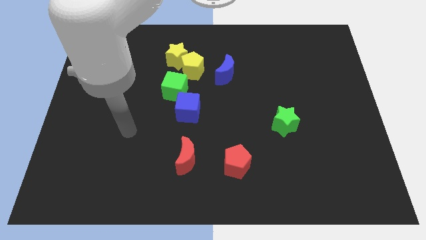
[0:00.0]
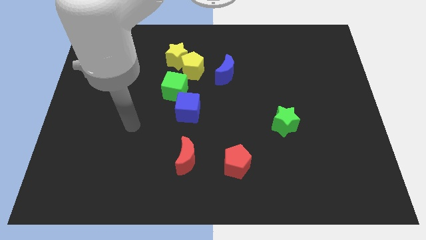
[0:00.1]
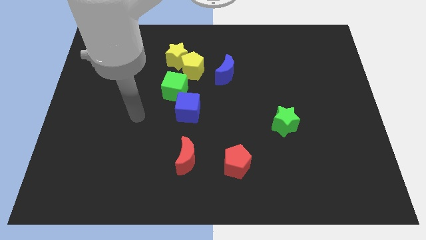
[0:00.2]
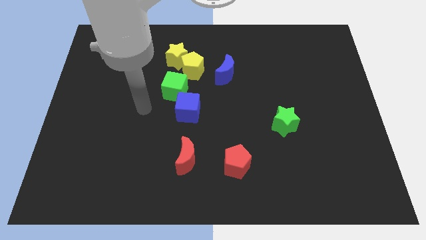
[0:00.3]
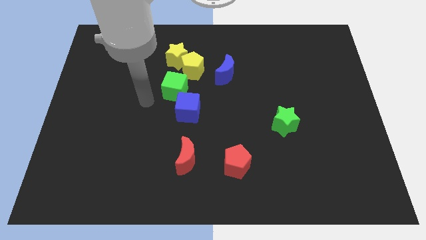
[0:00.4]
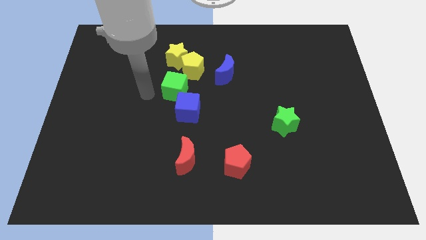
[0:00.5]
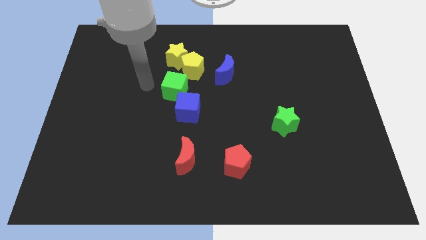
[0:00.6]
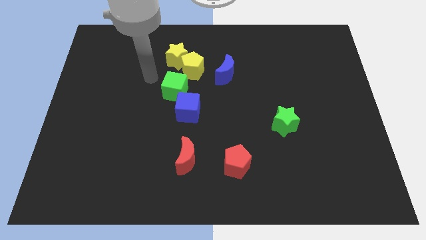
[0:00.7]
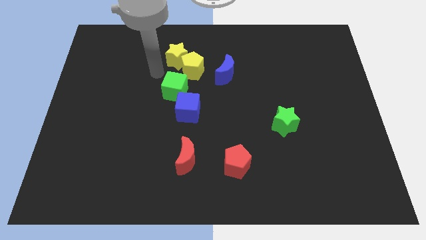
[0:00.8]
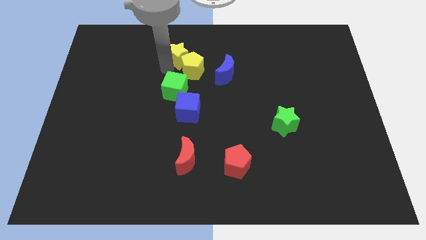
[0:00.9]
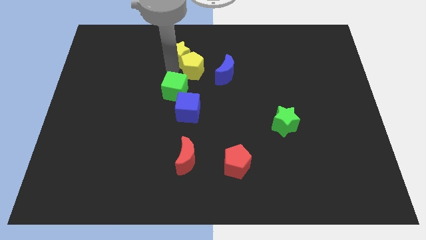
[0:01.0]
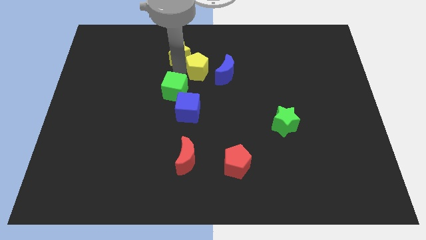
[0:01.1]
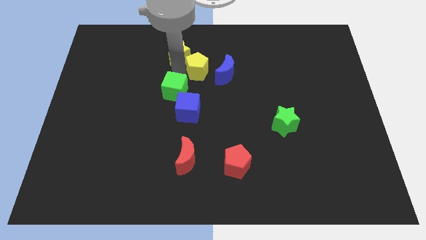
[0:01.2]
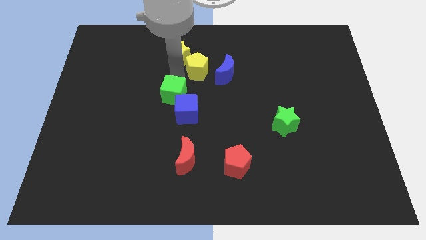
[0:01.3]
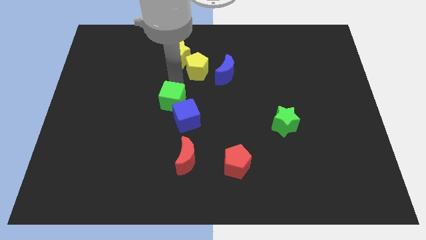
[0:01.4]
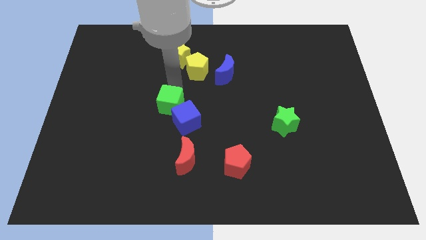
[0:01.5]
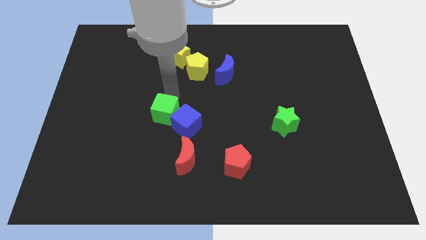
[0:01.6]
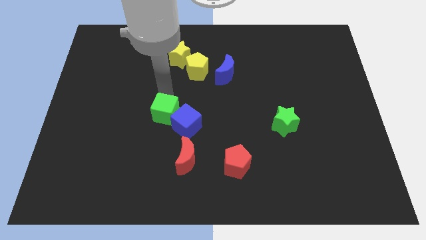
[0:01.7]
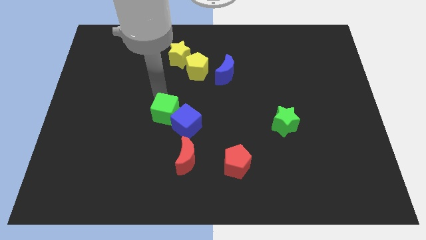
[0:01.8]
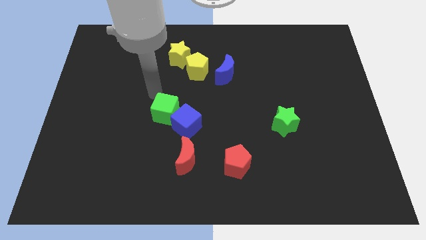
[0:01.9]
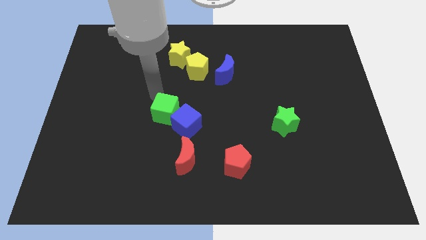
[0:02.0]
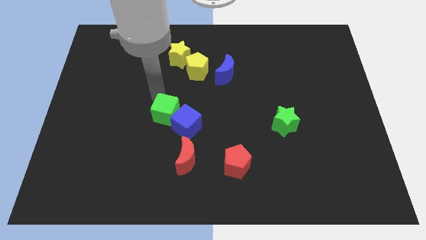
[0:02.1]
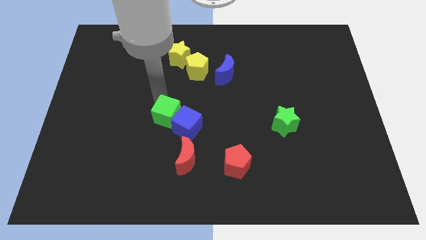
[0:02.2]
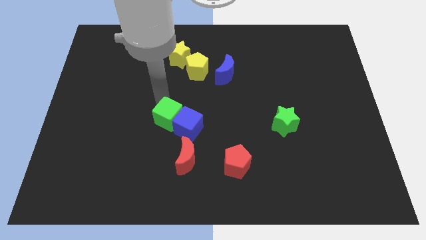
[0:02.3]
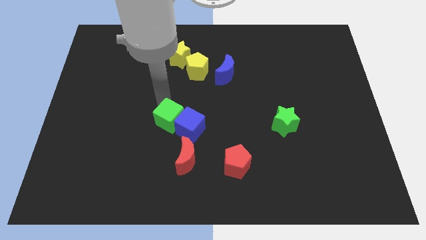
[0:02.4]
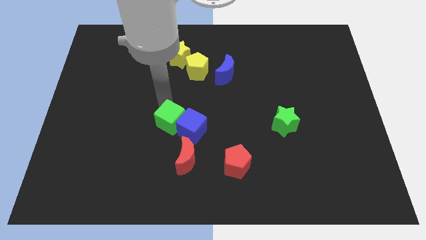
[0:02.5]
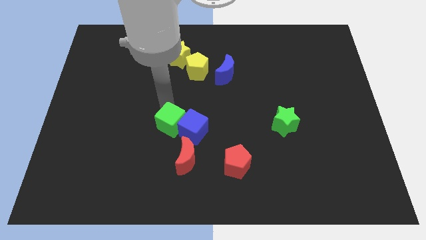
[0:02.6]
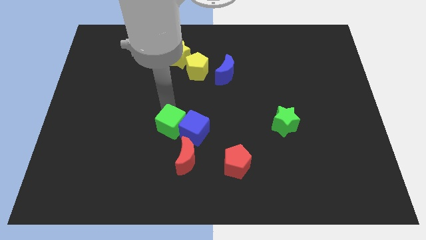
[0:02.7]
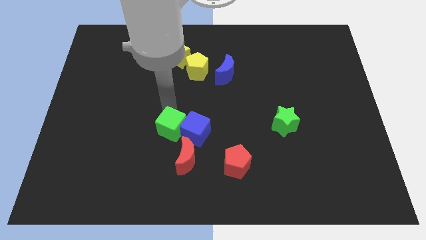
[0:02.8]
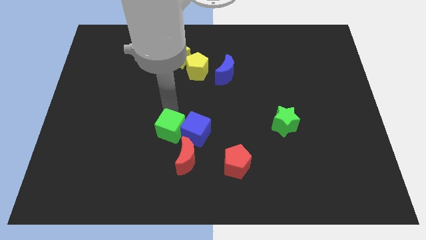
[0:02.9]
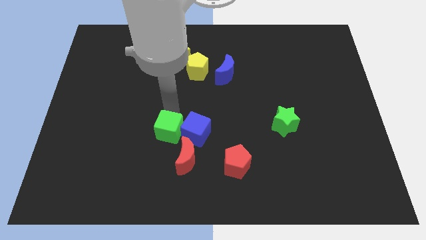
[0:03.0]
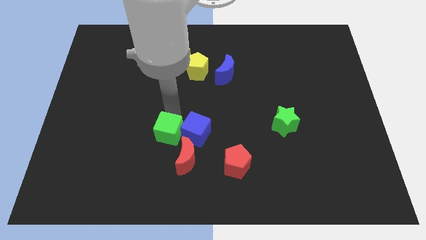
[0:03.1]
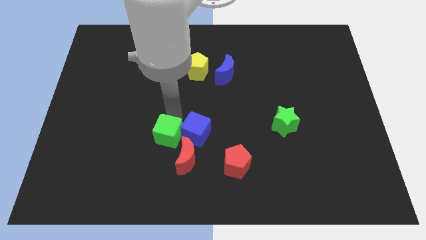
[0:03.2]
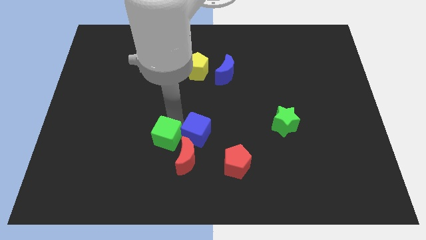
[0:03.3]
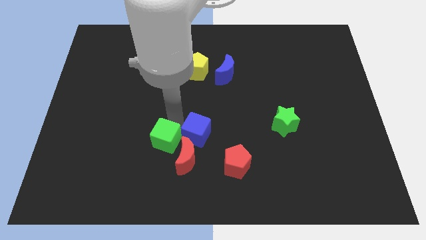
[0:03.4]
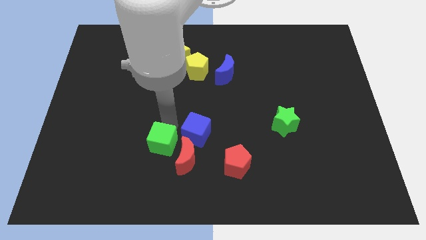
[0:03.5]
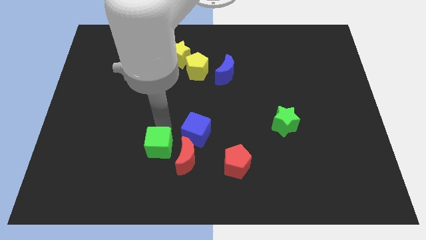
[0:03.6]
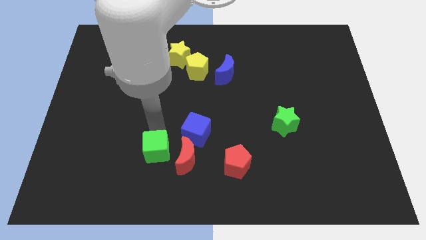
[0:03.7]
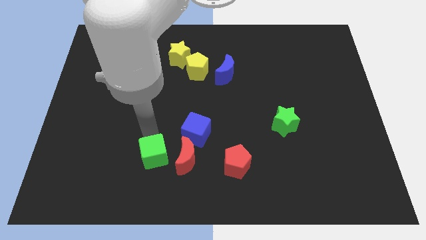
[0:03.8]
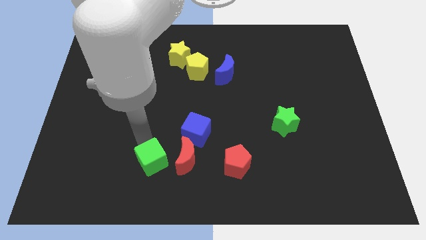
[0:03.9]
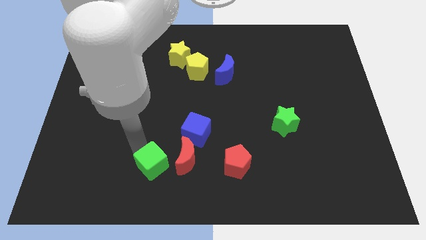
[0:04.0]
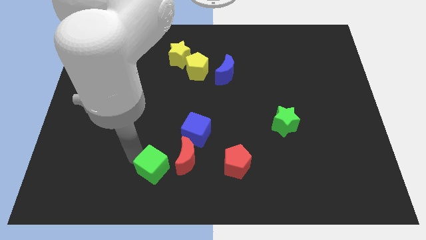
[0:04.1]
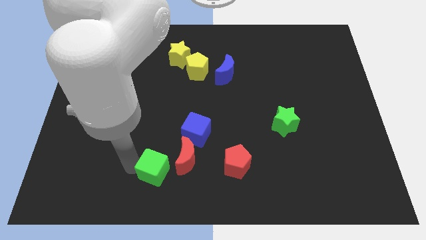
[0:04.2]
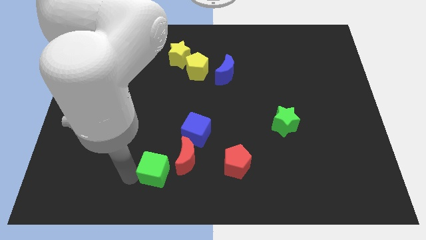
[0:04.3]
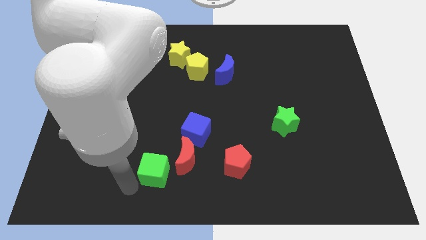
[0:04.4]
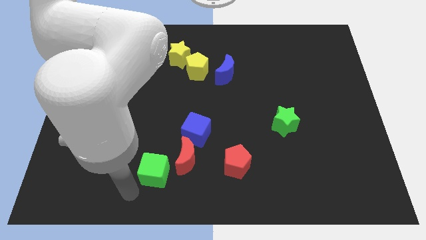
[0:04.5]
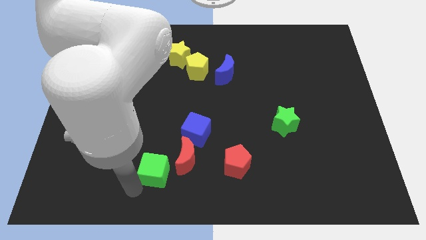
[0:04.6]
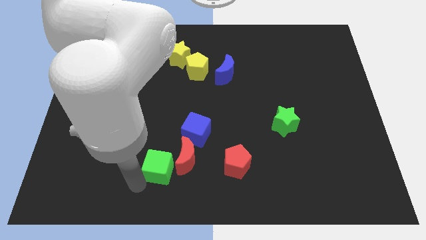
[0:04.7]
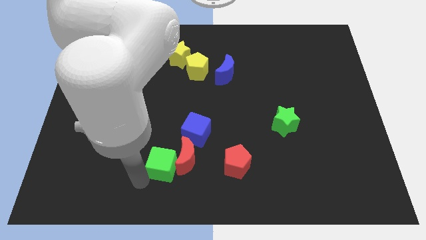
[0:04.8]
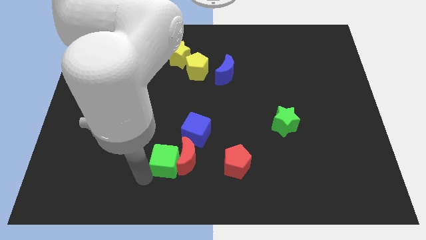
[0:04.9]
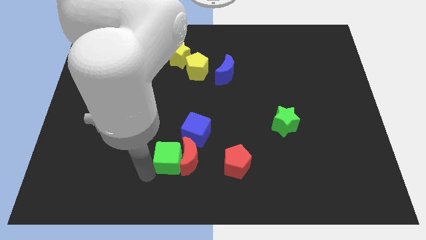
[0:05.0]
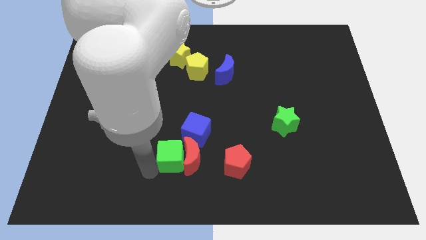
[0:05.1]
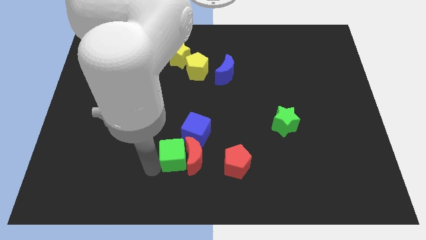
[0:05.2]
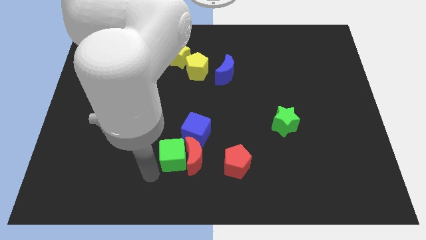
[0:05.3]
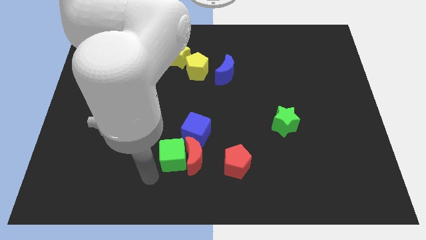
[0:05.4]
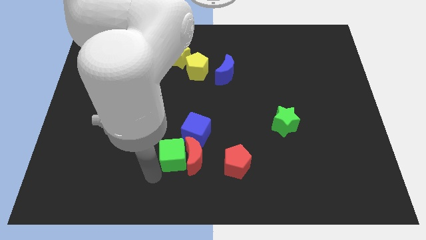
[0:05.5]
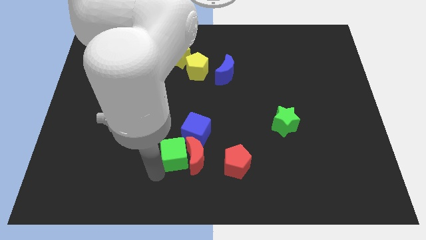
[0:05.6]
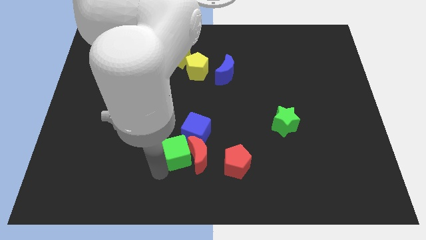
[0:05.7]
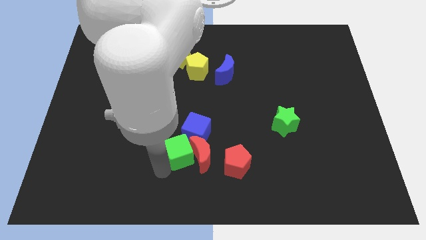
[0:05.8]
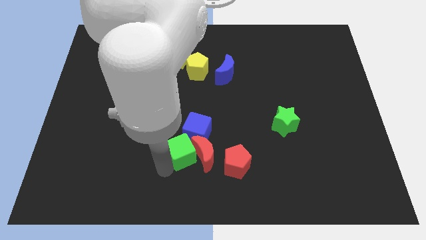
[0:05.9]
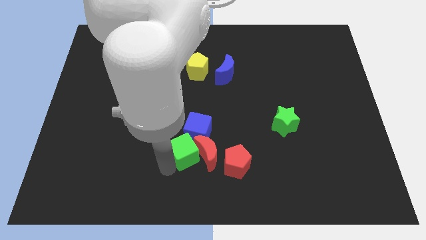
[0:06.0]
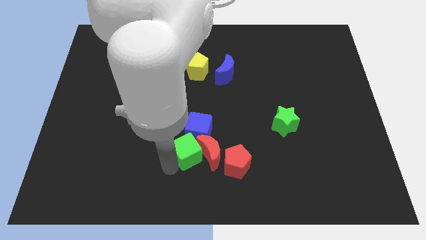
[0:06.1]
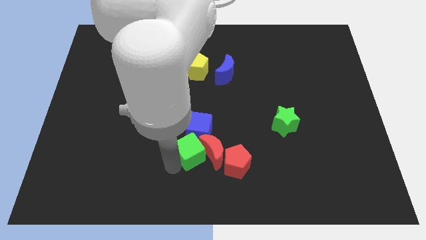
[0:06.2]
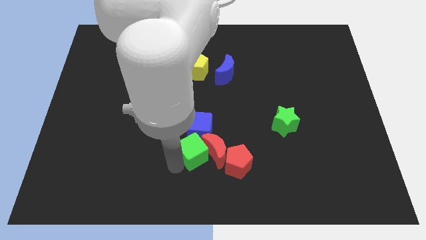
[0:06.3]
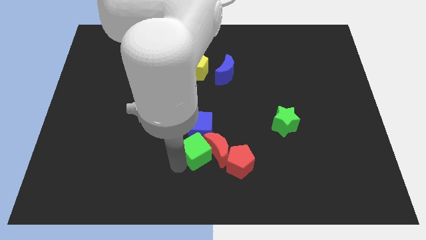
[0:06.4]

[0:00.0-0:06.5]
slide the green cube to the bottom side

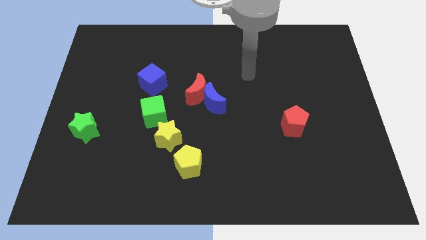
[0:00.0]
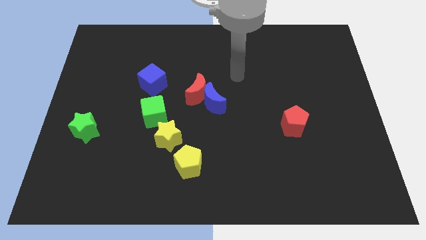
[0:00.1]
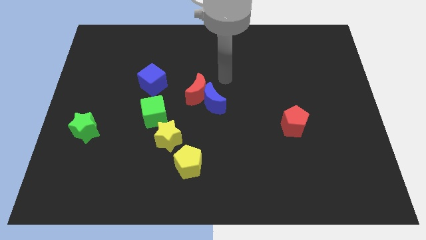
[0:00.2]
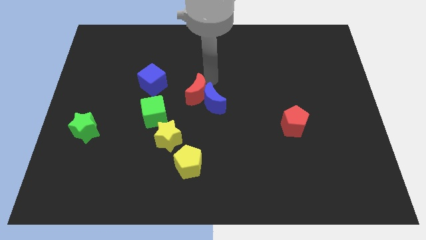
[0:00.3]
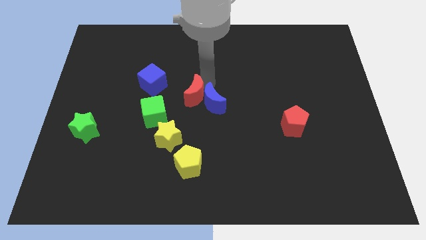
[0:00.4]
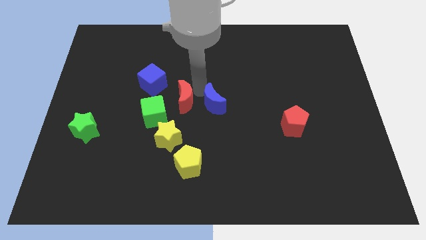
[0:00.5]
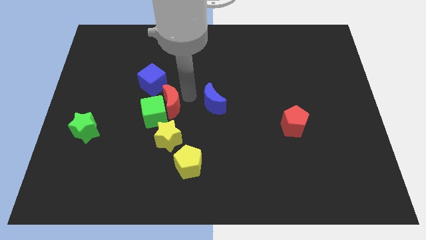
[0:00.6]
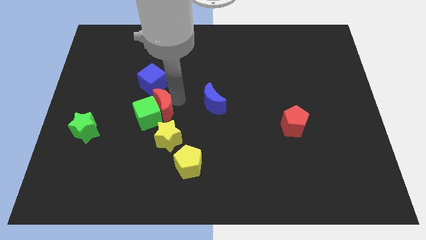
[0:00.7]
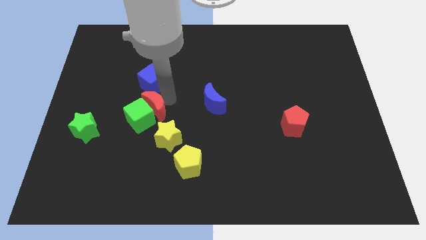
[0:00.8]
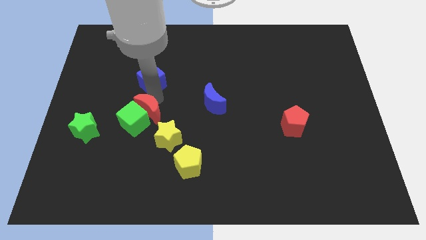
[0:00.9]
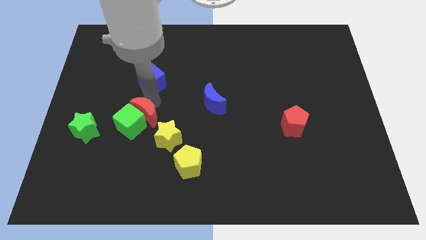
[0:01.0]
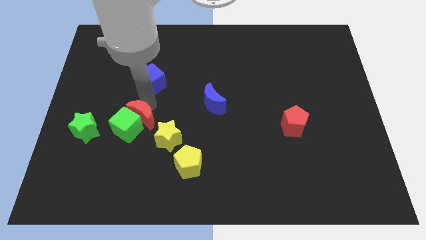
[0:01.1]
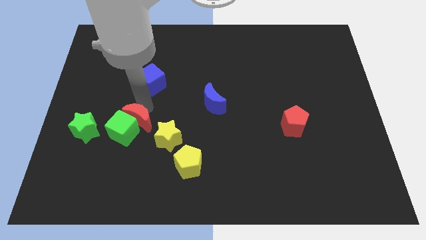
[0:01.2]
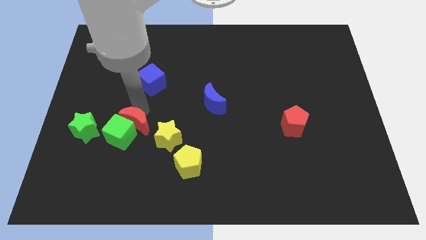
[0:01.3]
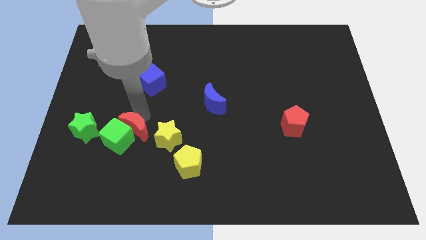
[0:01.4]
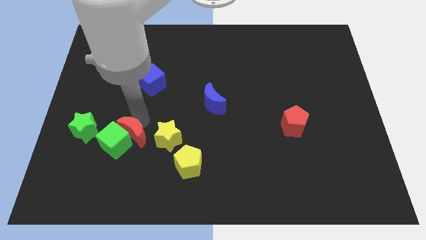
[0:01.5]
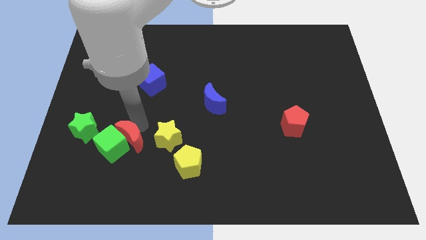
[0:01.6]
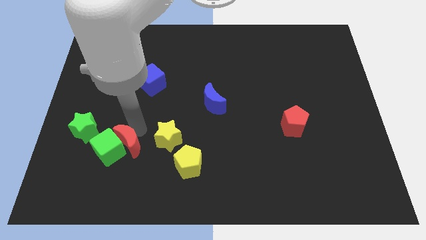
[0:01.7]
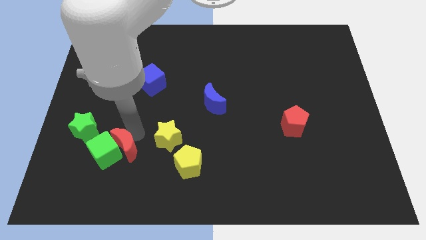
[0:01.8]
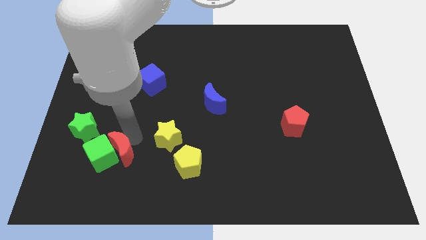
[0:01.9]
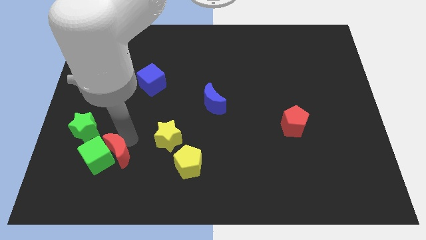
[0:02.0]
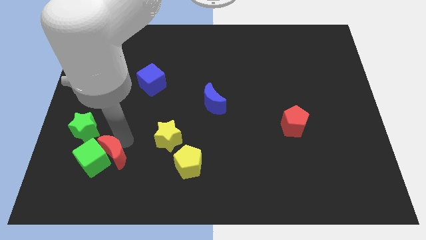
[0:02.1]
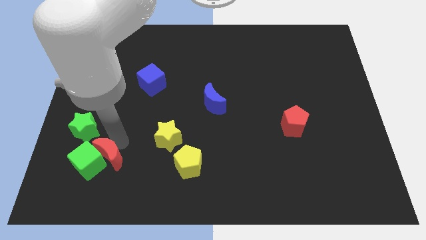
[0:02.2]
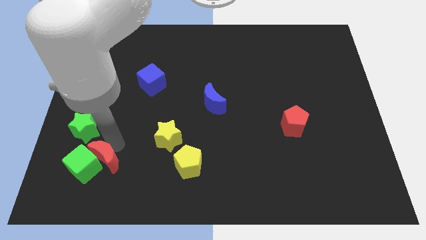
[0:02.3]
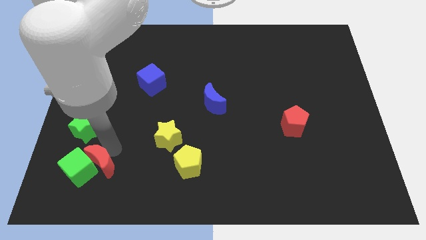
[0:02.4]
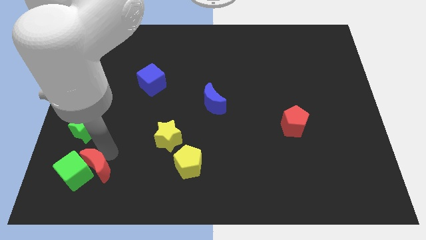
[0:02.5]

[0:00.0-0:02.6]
move the green cube to the lower left corner
